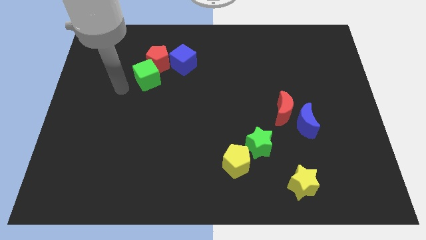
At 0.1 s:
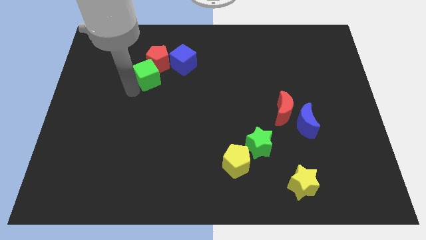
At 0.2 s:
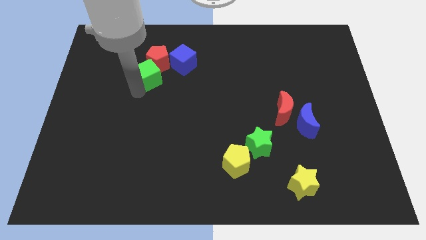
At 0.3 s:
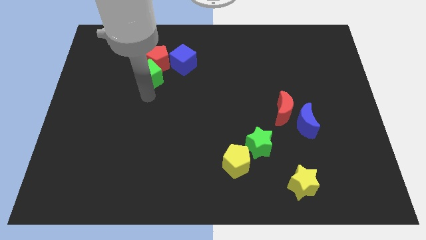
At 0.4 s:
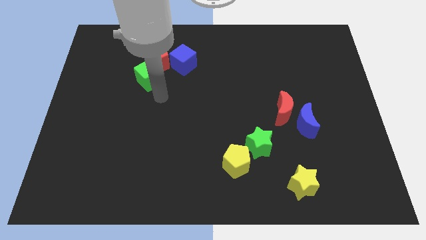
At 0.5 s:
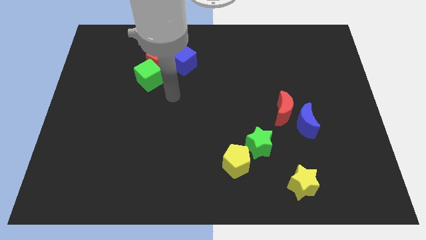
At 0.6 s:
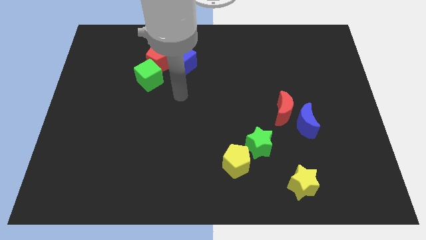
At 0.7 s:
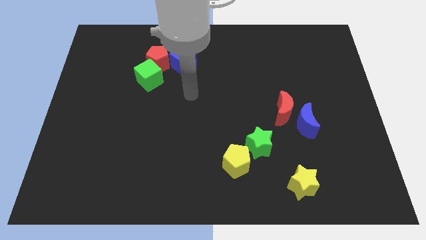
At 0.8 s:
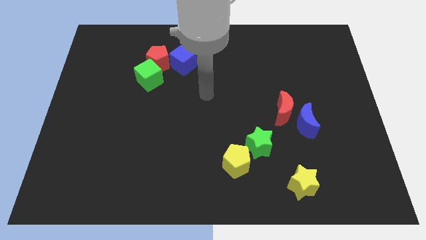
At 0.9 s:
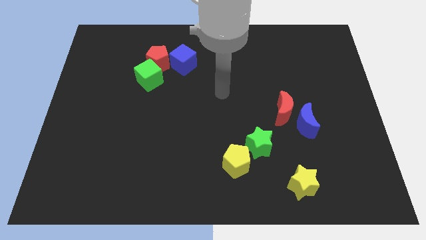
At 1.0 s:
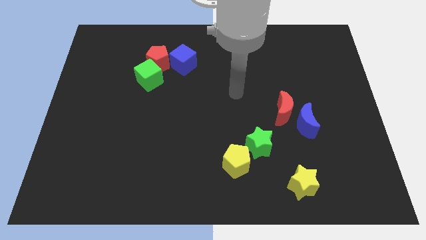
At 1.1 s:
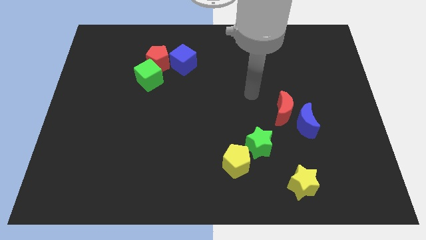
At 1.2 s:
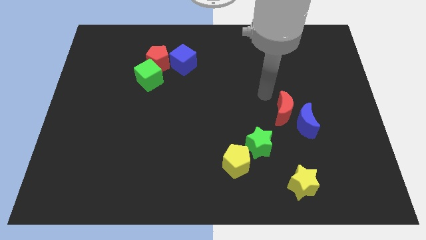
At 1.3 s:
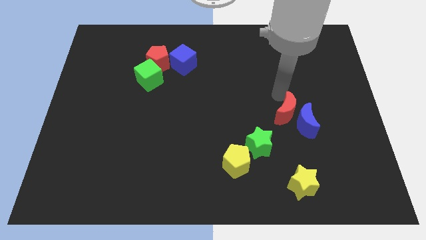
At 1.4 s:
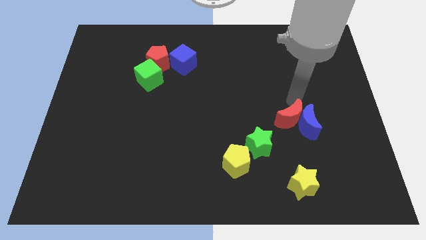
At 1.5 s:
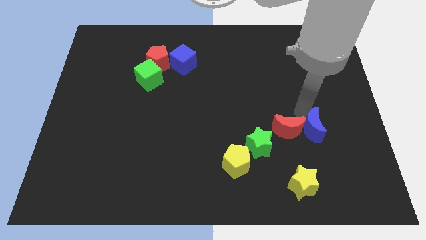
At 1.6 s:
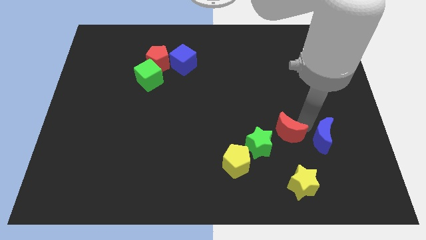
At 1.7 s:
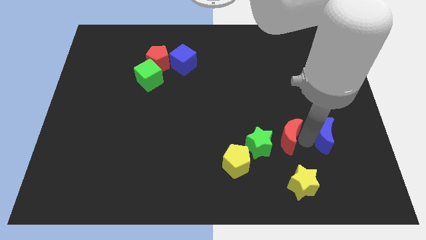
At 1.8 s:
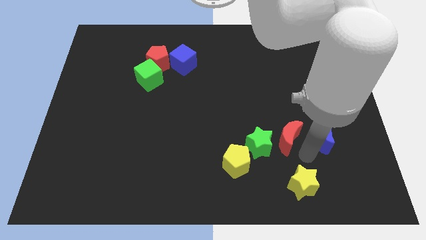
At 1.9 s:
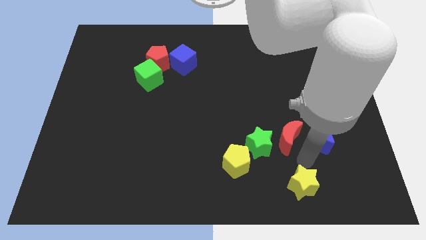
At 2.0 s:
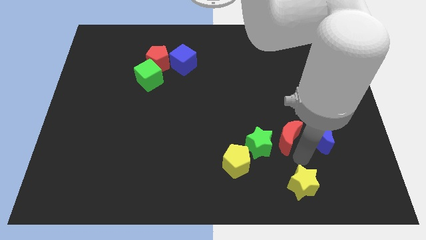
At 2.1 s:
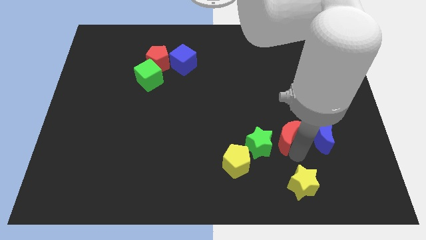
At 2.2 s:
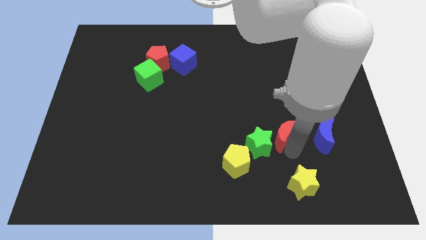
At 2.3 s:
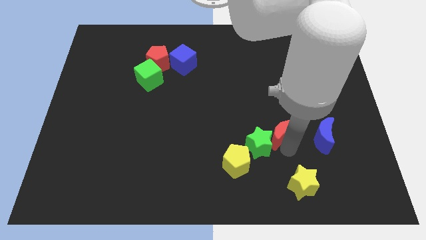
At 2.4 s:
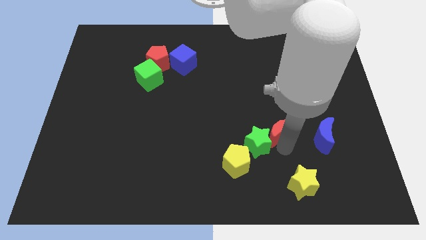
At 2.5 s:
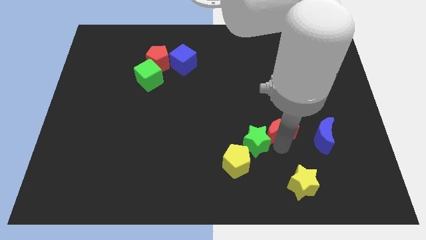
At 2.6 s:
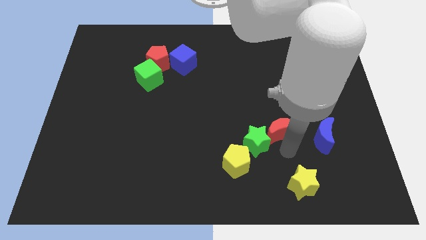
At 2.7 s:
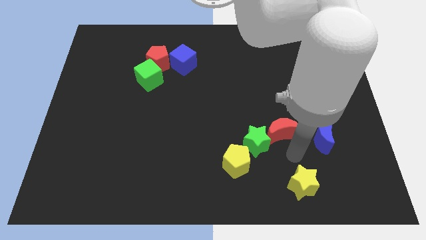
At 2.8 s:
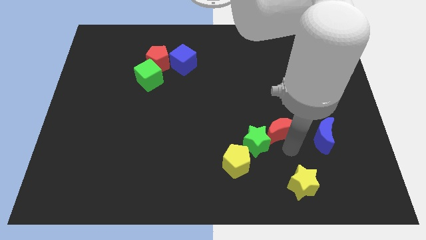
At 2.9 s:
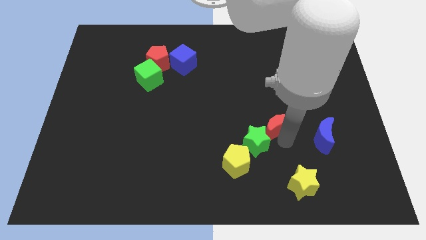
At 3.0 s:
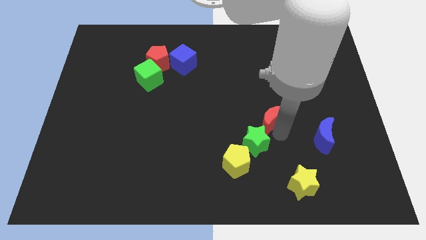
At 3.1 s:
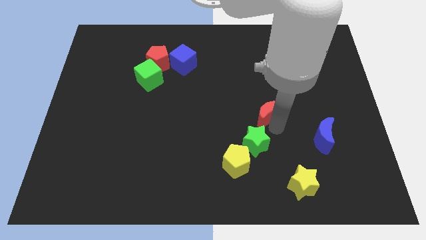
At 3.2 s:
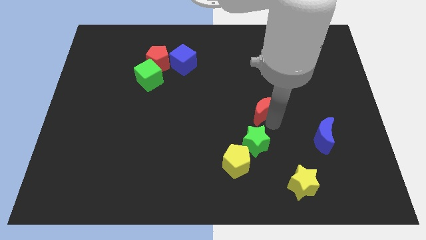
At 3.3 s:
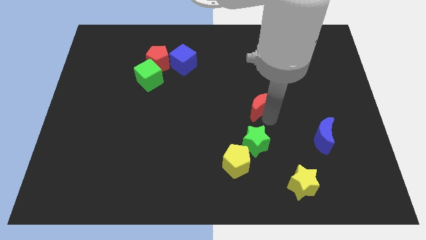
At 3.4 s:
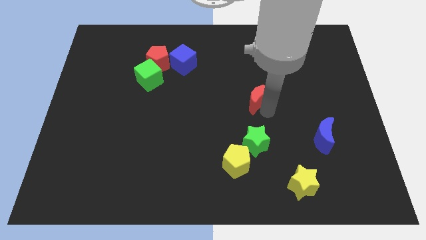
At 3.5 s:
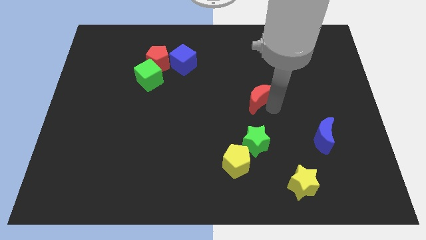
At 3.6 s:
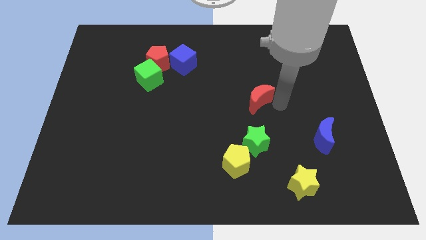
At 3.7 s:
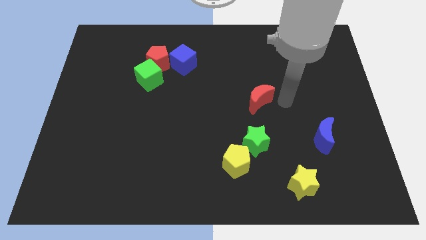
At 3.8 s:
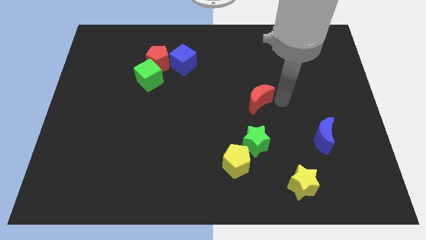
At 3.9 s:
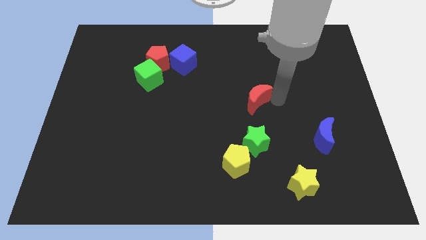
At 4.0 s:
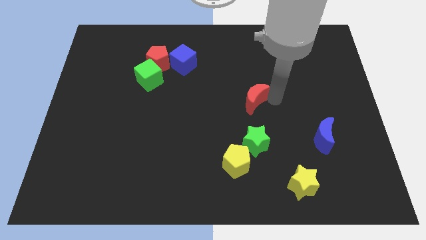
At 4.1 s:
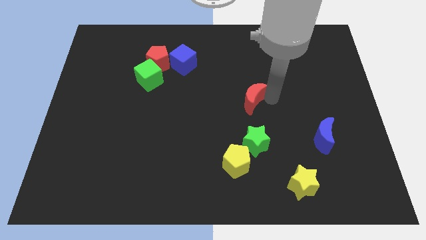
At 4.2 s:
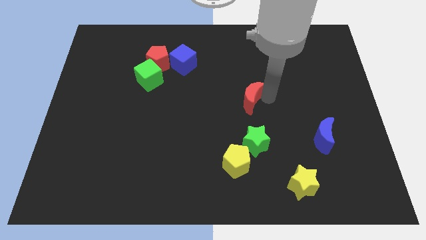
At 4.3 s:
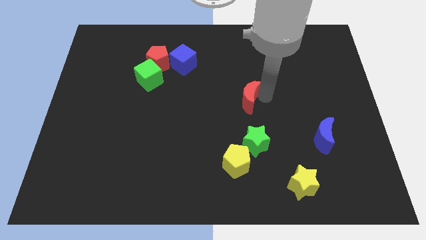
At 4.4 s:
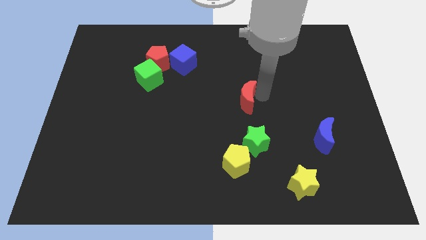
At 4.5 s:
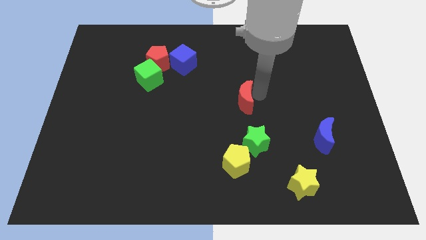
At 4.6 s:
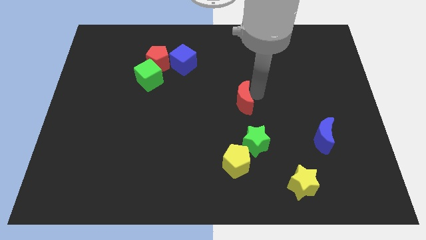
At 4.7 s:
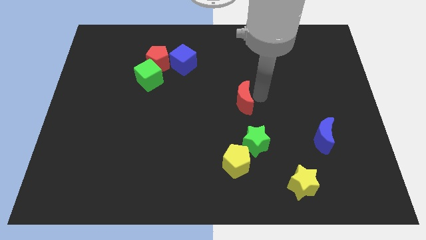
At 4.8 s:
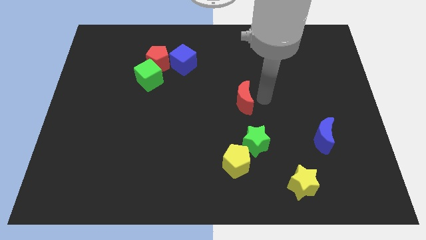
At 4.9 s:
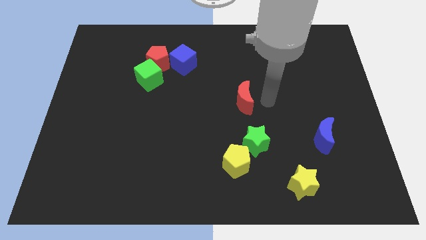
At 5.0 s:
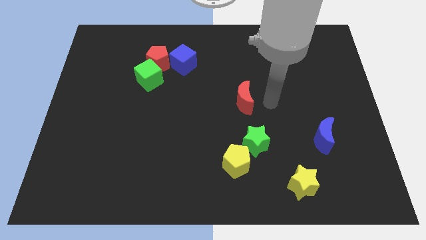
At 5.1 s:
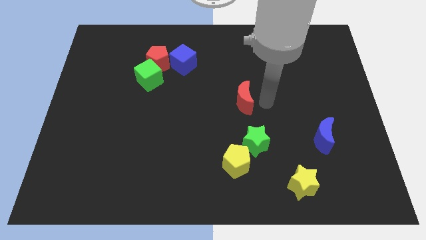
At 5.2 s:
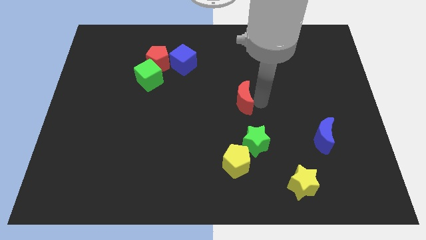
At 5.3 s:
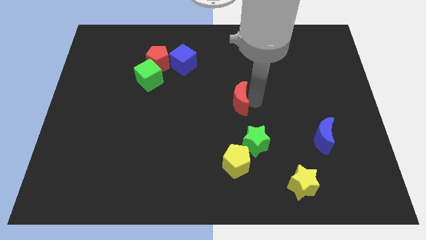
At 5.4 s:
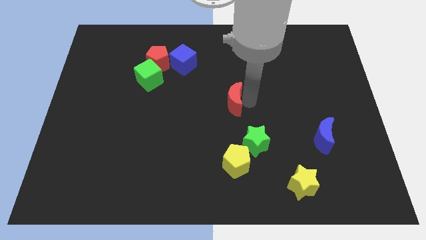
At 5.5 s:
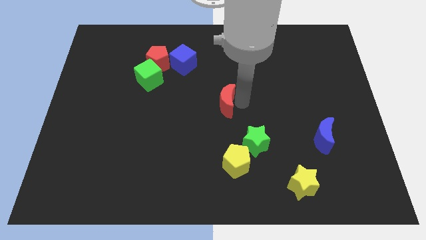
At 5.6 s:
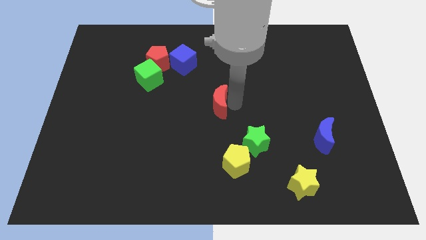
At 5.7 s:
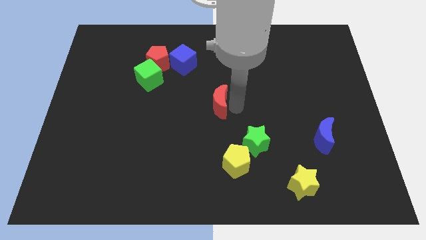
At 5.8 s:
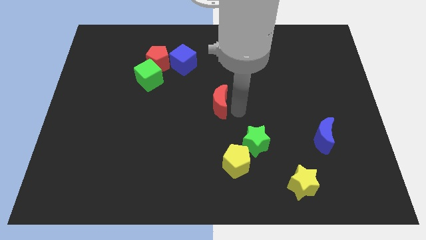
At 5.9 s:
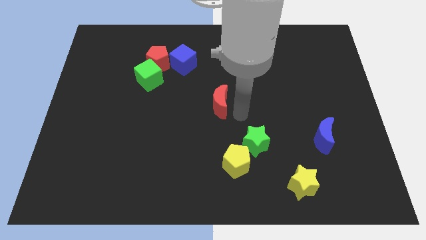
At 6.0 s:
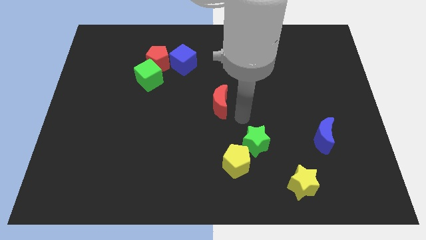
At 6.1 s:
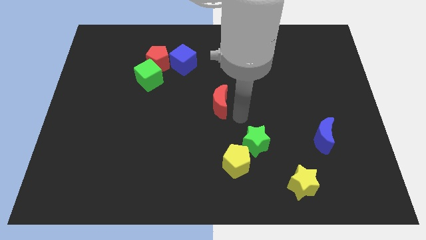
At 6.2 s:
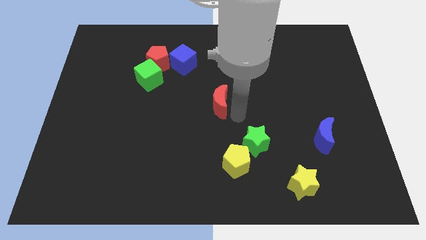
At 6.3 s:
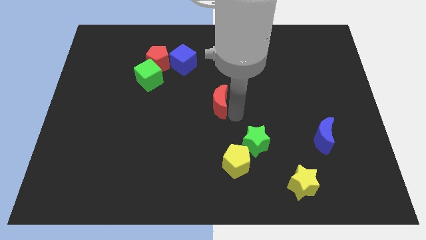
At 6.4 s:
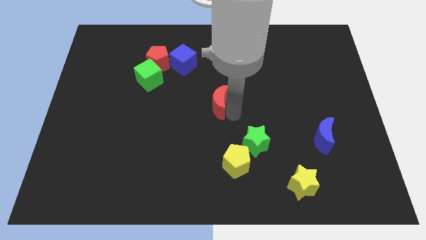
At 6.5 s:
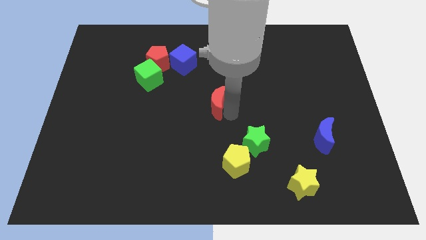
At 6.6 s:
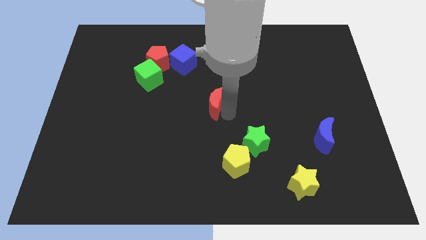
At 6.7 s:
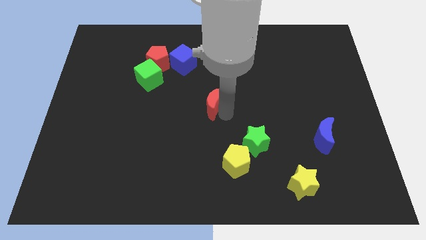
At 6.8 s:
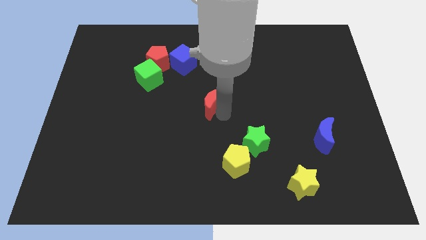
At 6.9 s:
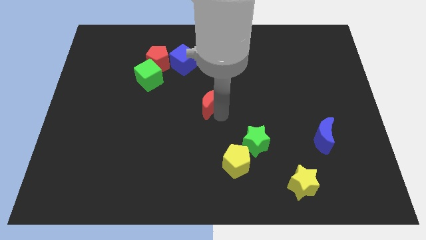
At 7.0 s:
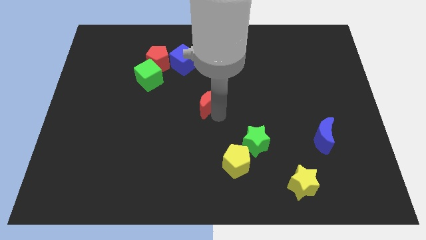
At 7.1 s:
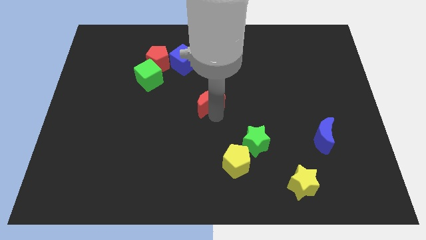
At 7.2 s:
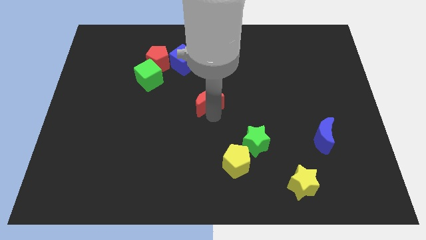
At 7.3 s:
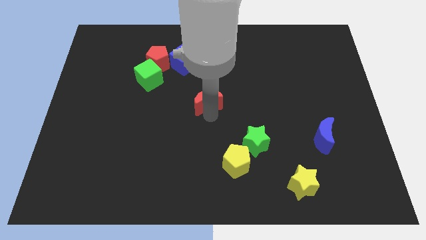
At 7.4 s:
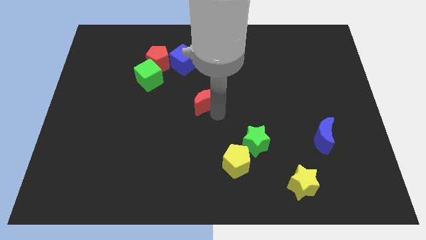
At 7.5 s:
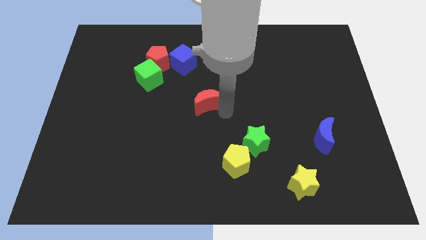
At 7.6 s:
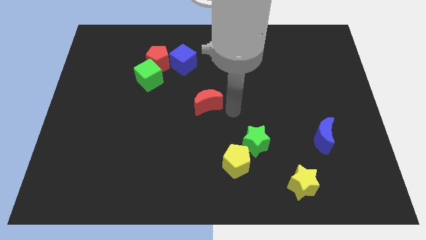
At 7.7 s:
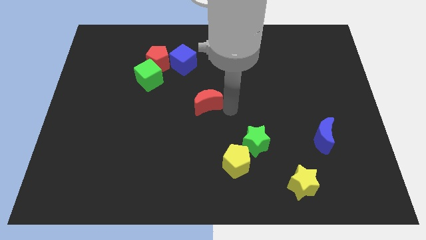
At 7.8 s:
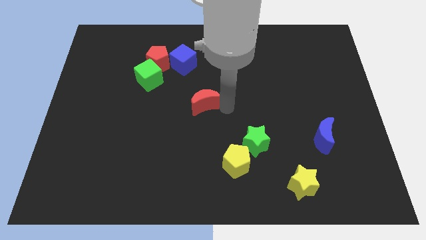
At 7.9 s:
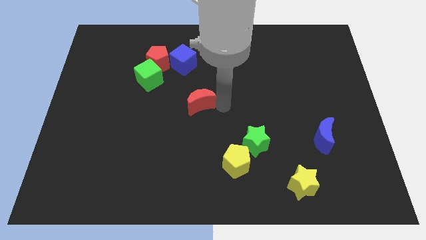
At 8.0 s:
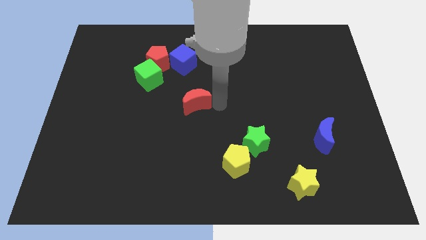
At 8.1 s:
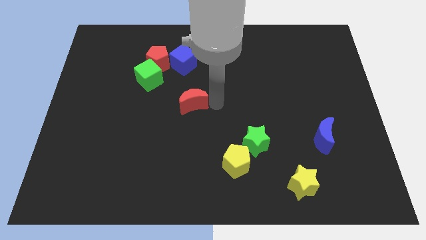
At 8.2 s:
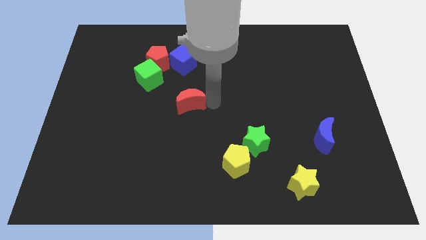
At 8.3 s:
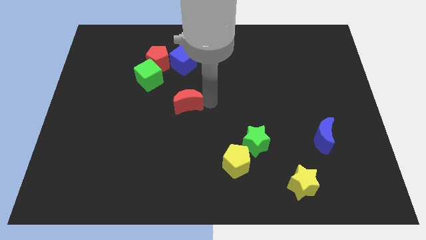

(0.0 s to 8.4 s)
put the red moon to the bottom right side of the green cube
